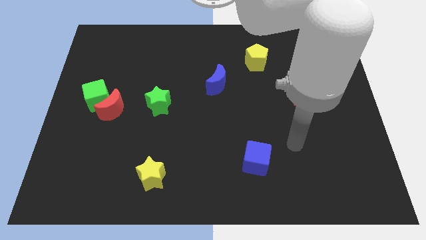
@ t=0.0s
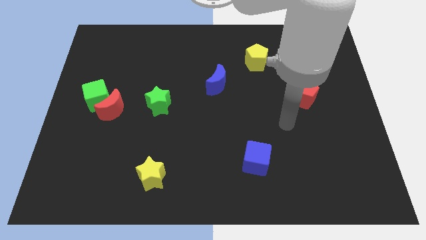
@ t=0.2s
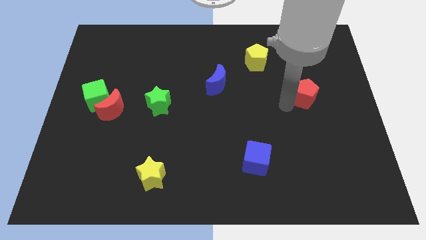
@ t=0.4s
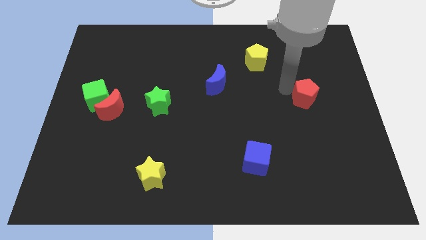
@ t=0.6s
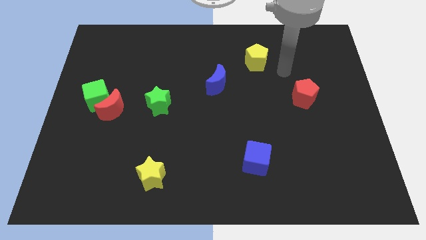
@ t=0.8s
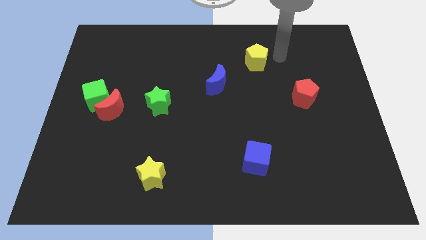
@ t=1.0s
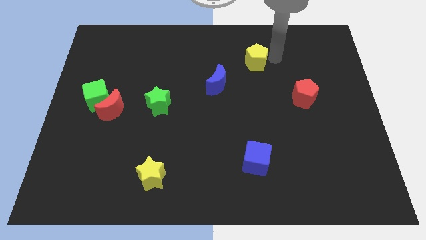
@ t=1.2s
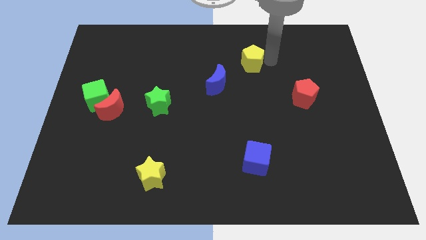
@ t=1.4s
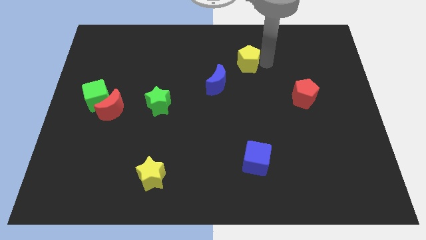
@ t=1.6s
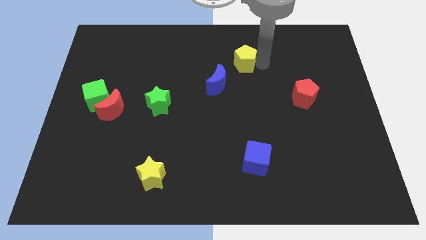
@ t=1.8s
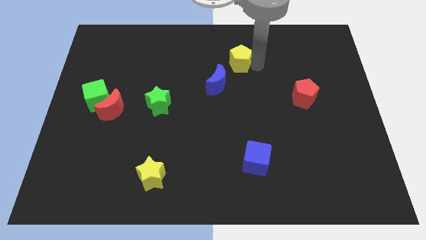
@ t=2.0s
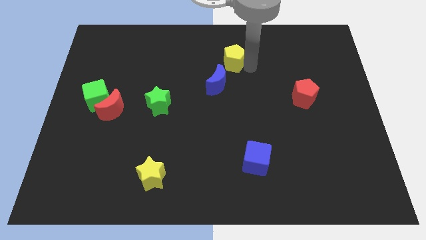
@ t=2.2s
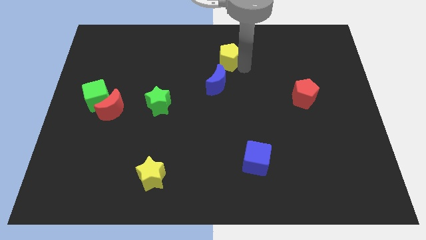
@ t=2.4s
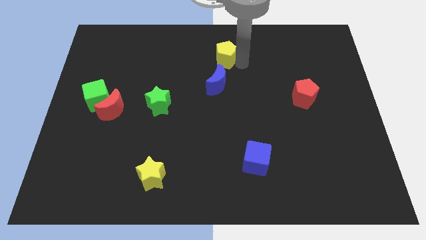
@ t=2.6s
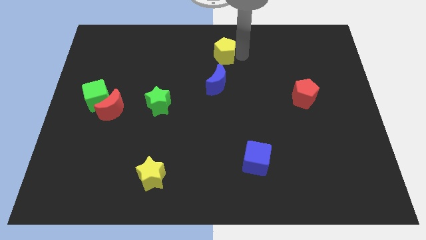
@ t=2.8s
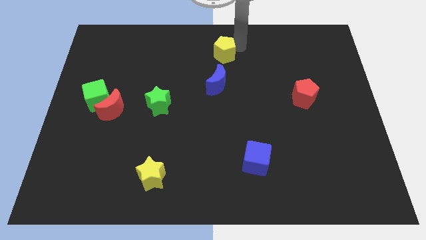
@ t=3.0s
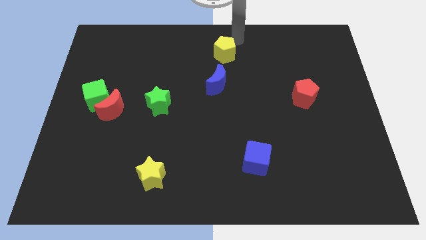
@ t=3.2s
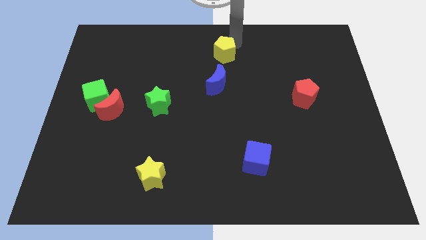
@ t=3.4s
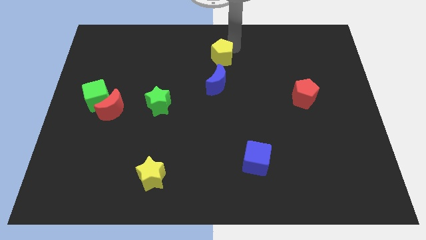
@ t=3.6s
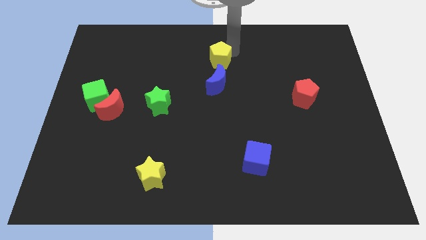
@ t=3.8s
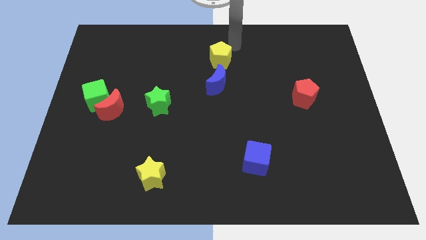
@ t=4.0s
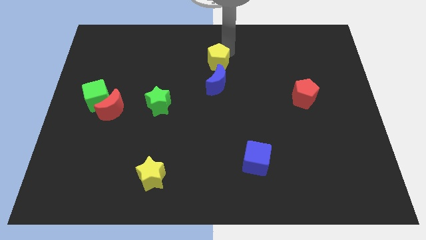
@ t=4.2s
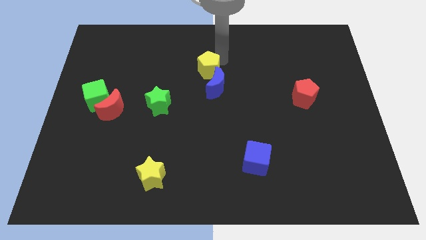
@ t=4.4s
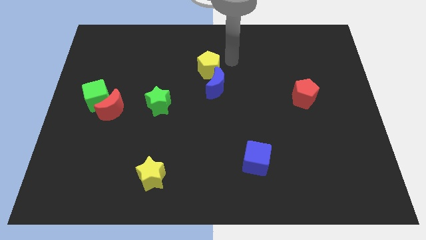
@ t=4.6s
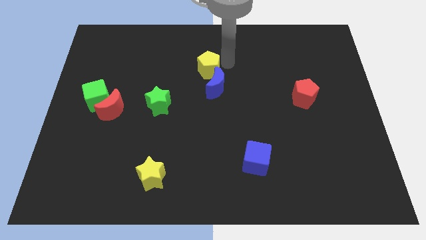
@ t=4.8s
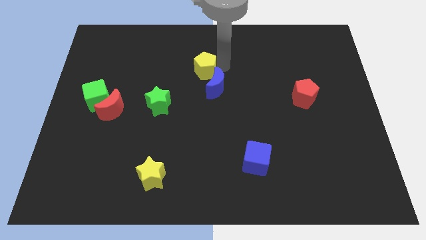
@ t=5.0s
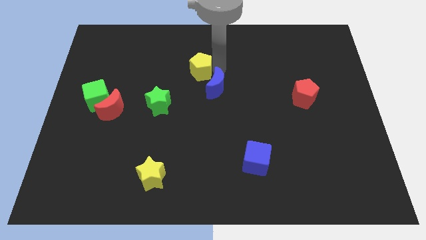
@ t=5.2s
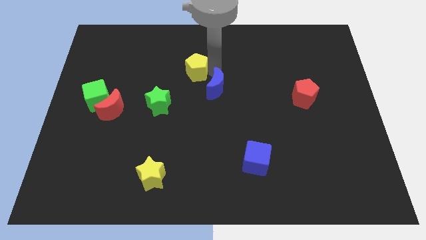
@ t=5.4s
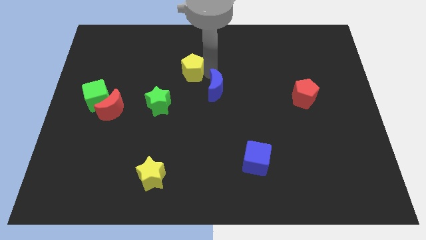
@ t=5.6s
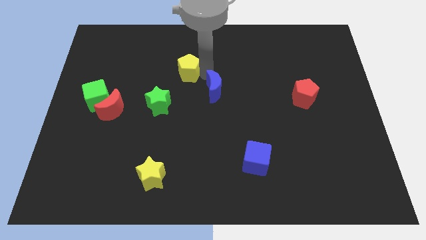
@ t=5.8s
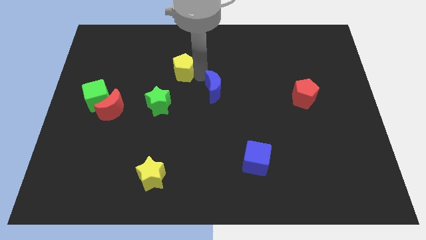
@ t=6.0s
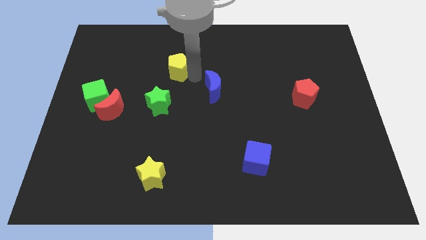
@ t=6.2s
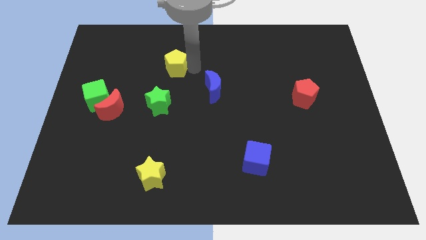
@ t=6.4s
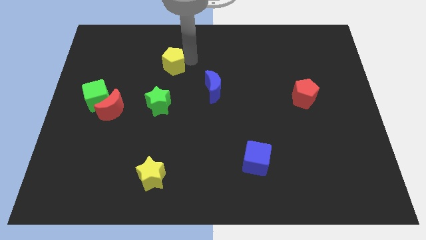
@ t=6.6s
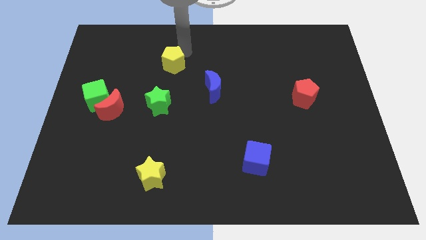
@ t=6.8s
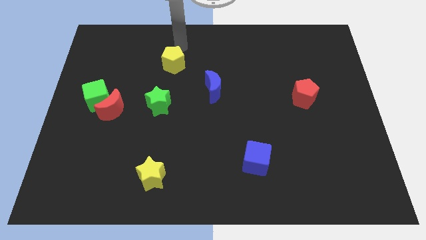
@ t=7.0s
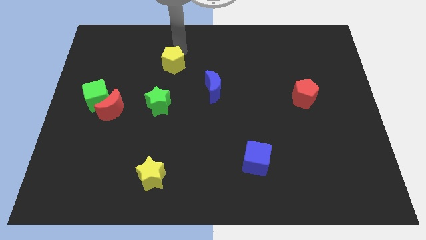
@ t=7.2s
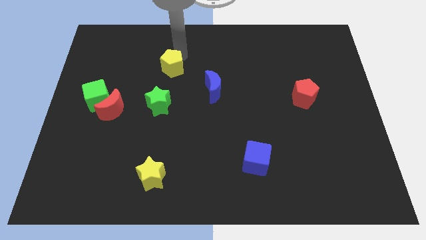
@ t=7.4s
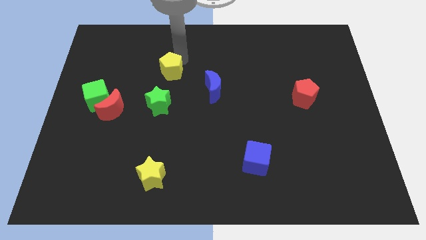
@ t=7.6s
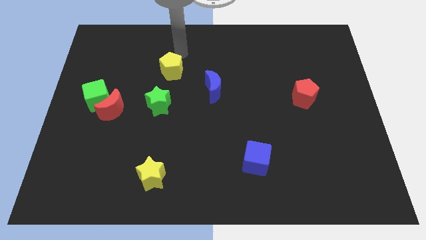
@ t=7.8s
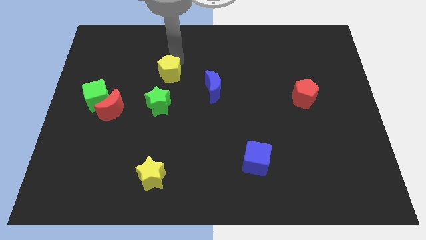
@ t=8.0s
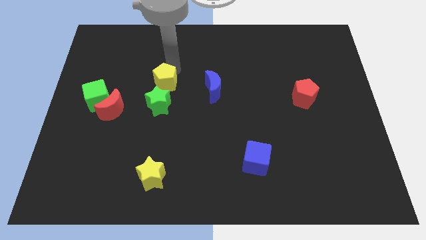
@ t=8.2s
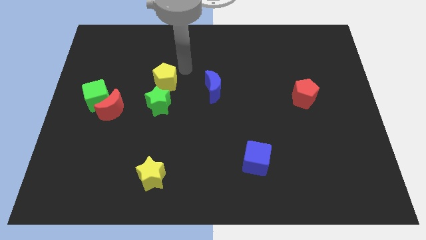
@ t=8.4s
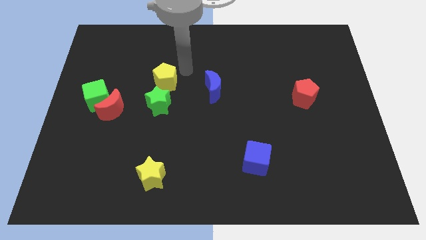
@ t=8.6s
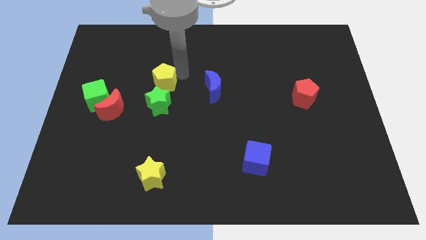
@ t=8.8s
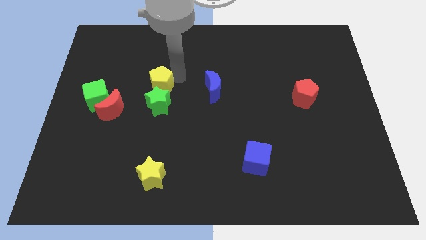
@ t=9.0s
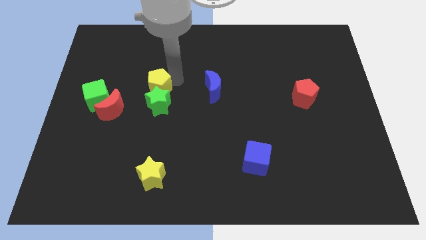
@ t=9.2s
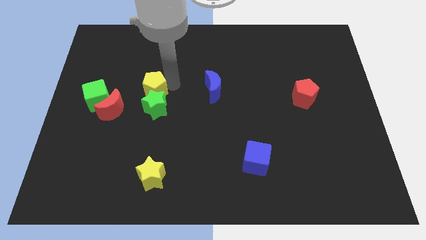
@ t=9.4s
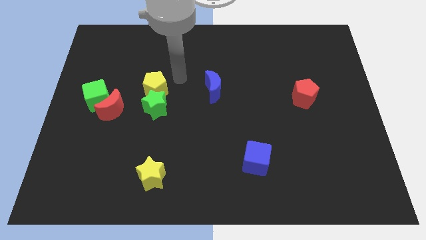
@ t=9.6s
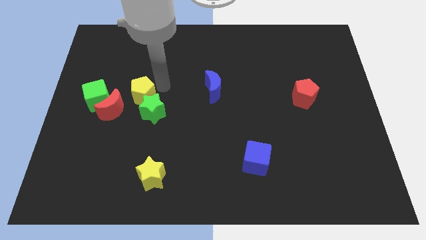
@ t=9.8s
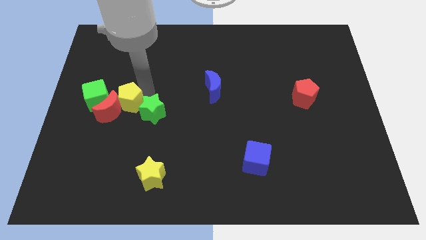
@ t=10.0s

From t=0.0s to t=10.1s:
move the yellow pentagon close to the red moon

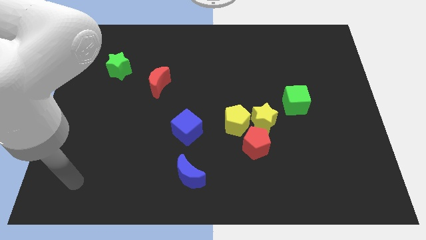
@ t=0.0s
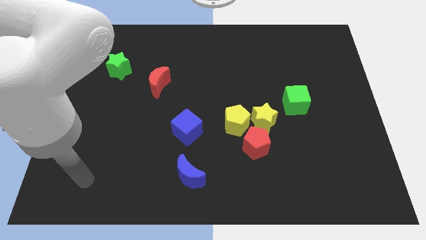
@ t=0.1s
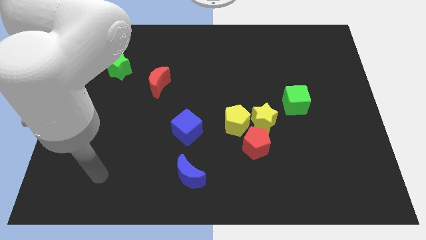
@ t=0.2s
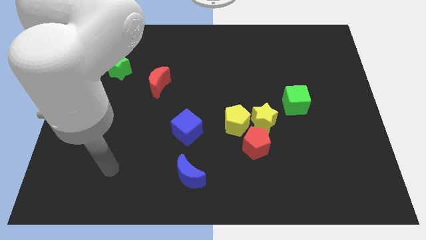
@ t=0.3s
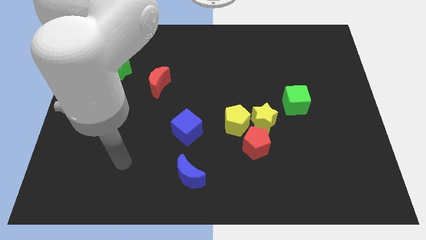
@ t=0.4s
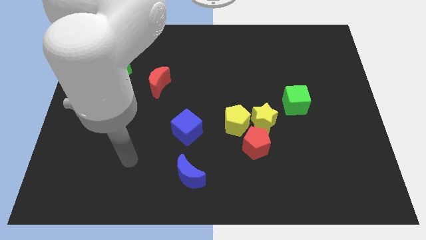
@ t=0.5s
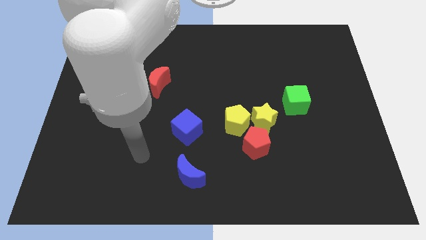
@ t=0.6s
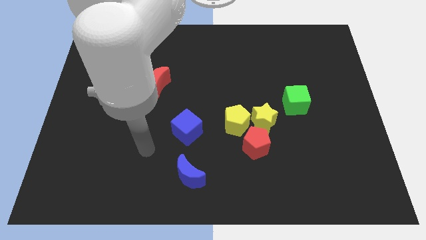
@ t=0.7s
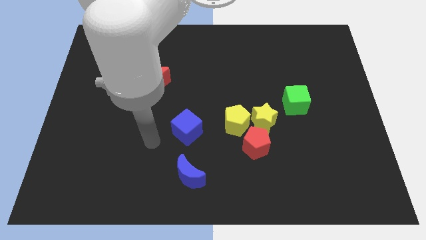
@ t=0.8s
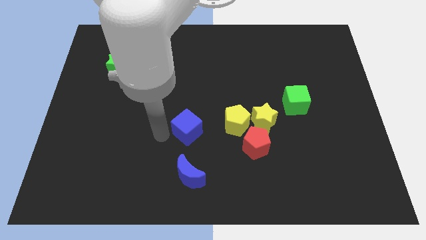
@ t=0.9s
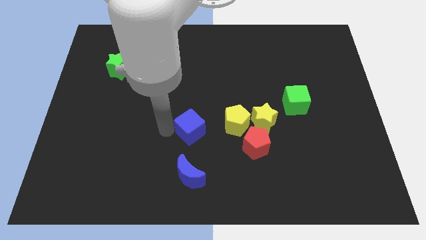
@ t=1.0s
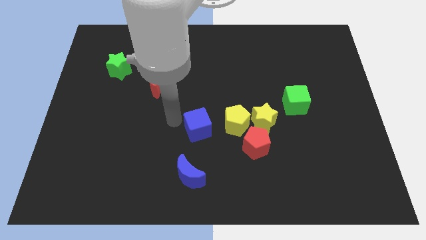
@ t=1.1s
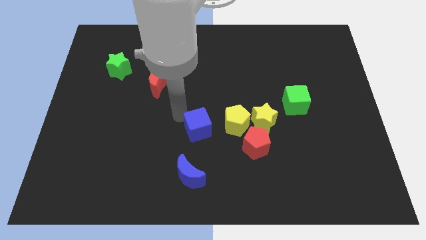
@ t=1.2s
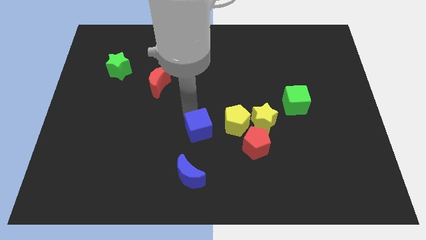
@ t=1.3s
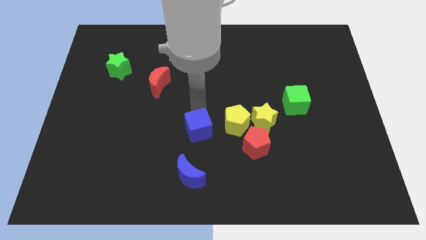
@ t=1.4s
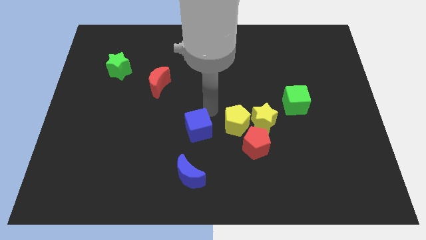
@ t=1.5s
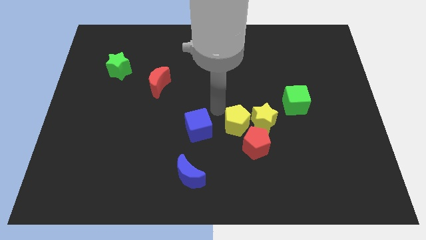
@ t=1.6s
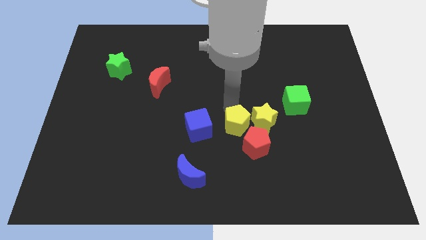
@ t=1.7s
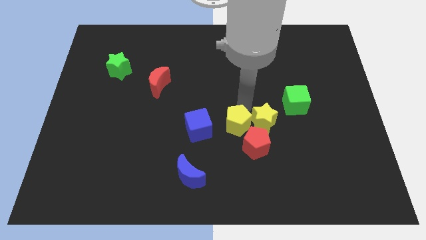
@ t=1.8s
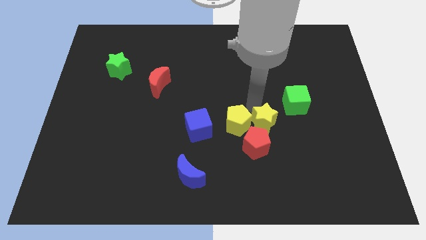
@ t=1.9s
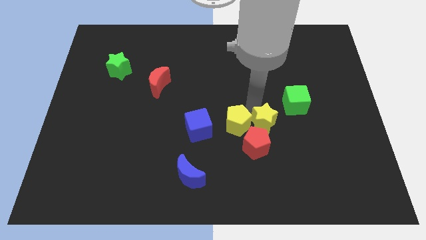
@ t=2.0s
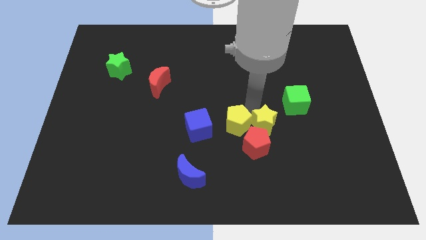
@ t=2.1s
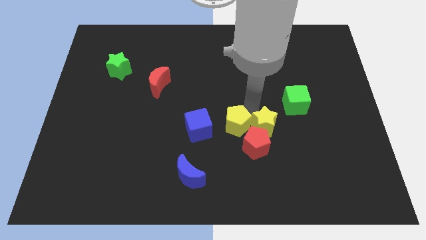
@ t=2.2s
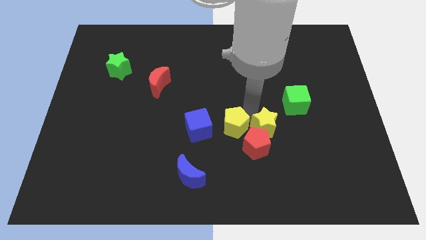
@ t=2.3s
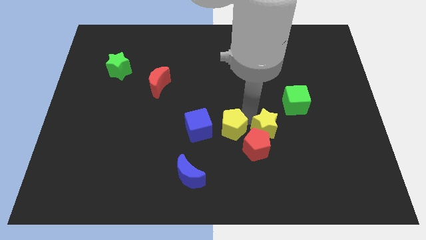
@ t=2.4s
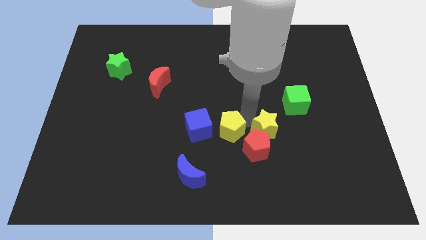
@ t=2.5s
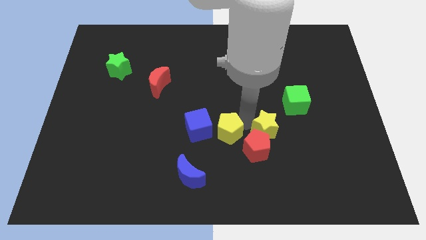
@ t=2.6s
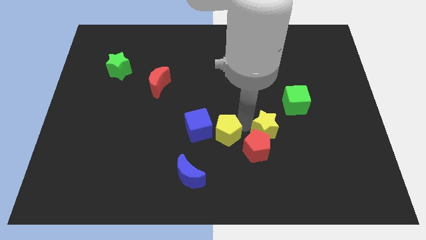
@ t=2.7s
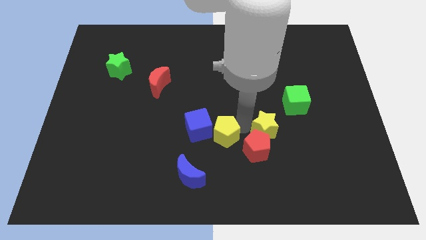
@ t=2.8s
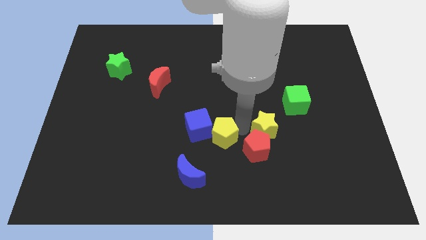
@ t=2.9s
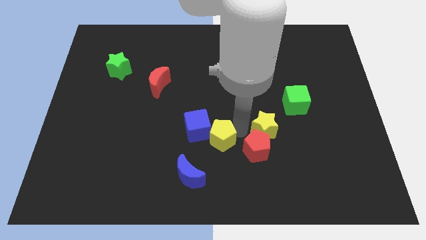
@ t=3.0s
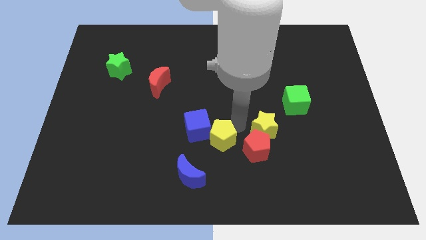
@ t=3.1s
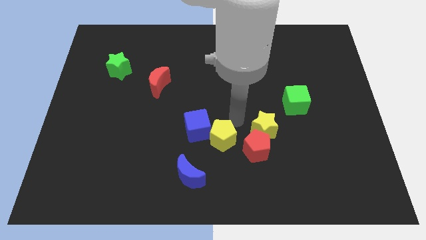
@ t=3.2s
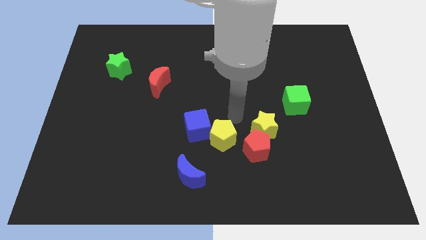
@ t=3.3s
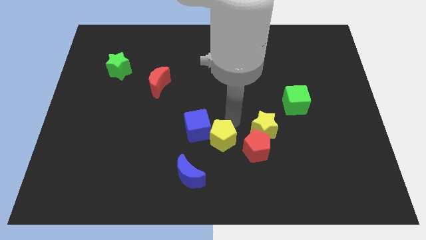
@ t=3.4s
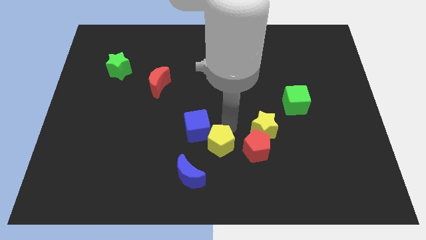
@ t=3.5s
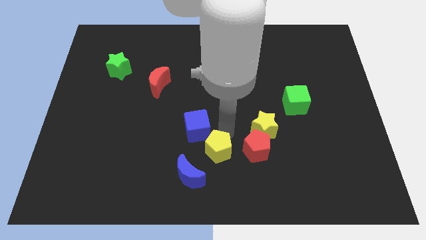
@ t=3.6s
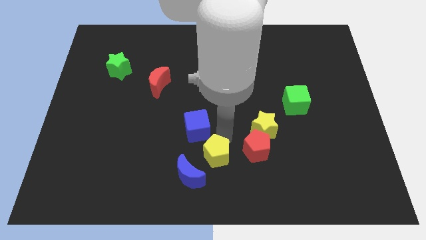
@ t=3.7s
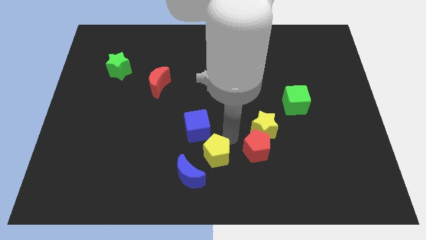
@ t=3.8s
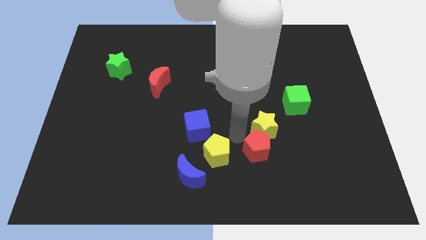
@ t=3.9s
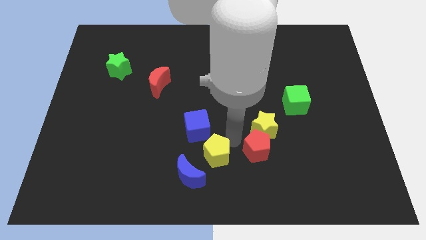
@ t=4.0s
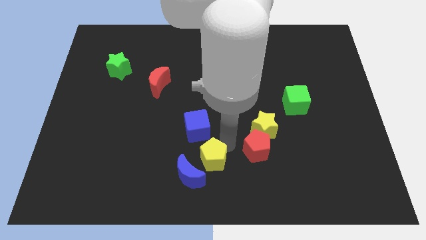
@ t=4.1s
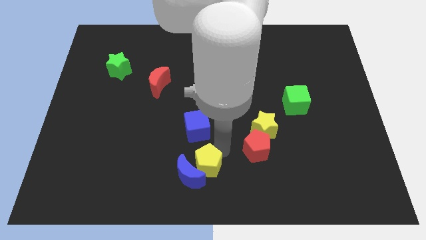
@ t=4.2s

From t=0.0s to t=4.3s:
push the yellow pentagon close to the blue moon
